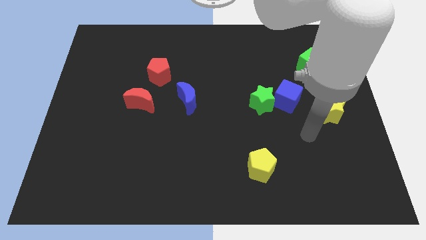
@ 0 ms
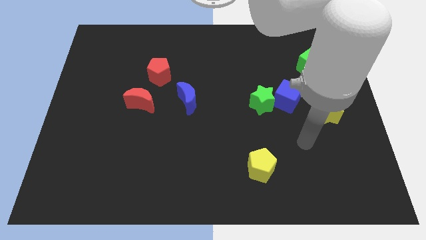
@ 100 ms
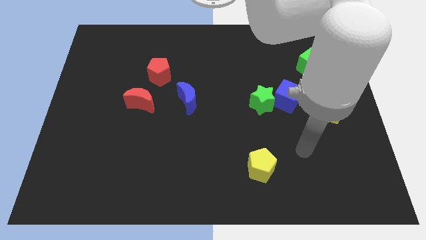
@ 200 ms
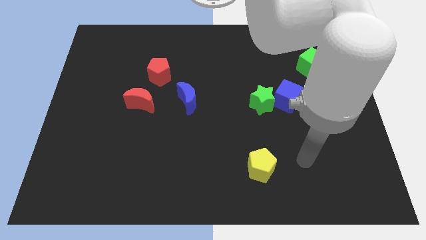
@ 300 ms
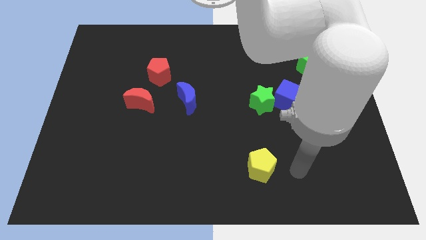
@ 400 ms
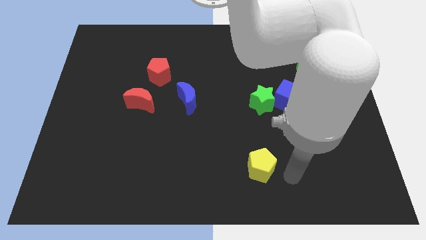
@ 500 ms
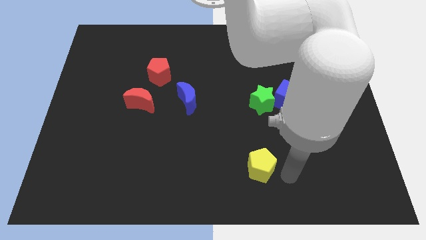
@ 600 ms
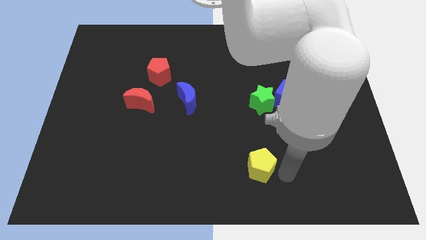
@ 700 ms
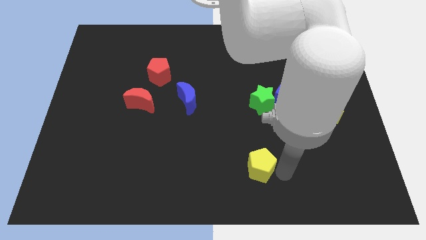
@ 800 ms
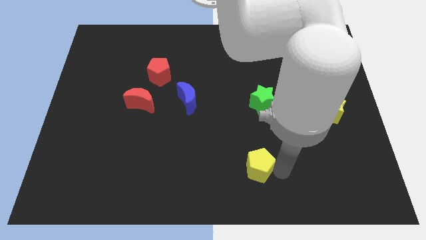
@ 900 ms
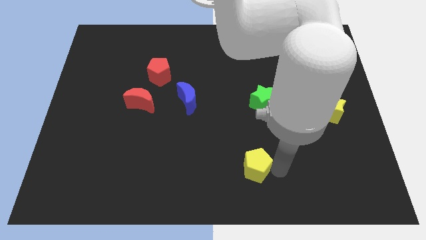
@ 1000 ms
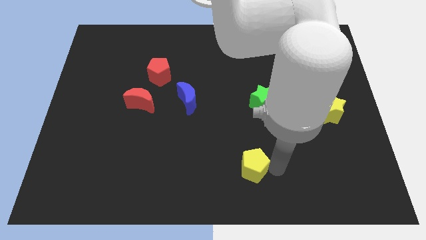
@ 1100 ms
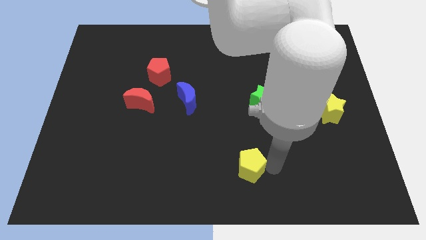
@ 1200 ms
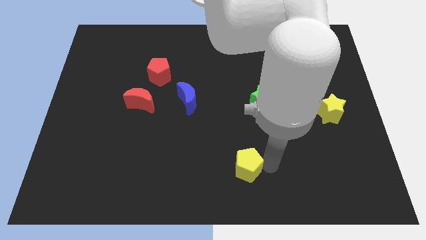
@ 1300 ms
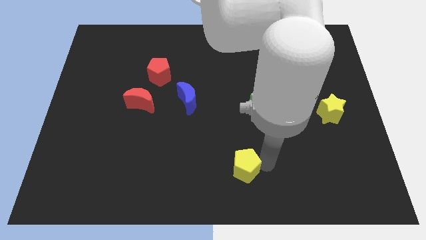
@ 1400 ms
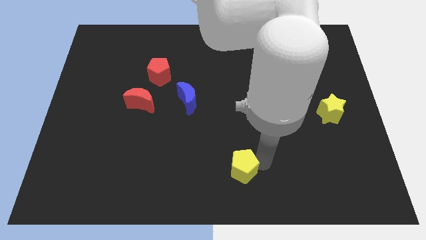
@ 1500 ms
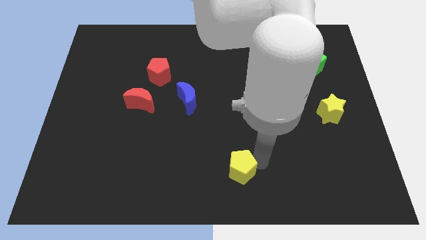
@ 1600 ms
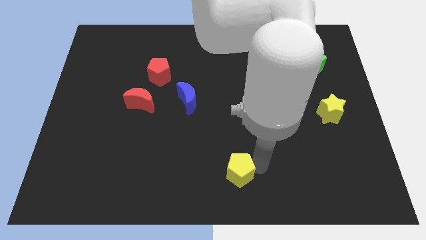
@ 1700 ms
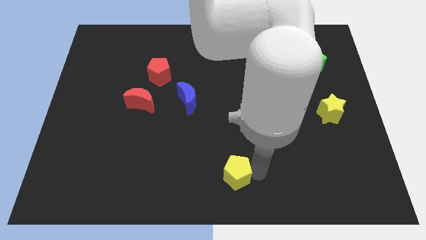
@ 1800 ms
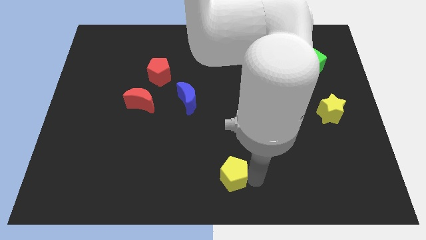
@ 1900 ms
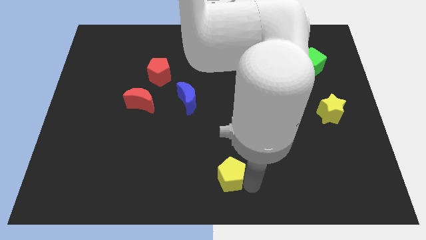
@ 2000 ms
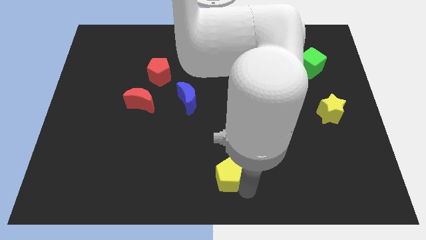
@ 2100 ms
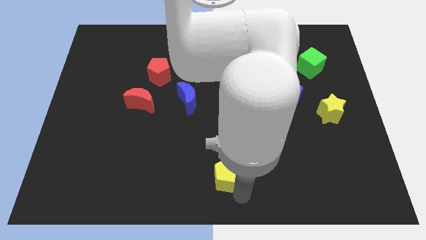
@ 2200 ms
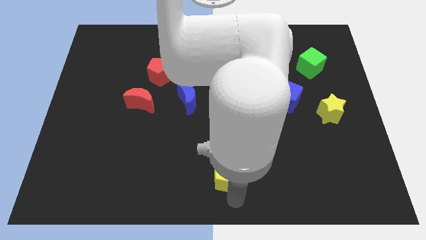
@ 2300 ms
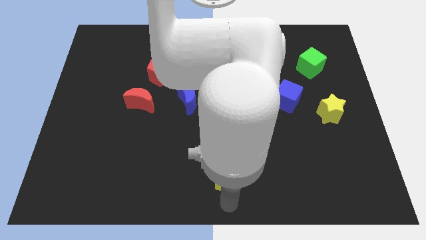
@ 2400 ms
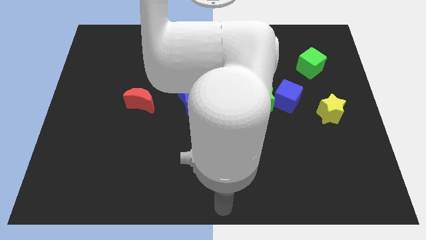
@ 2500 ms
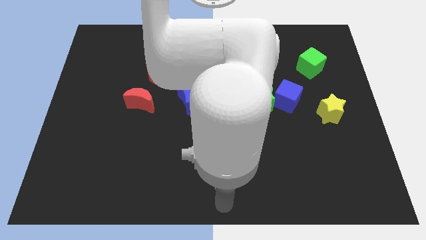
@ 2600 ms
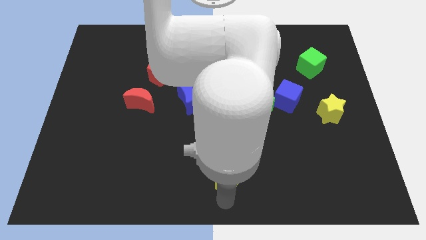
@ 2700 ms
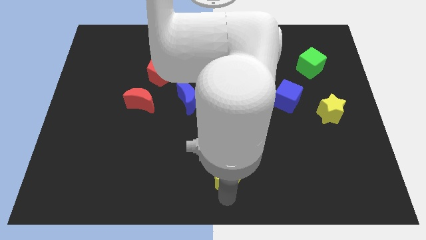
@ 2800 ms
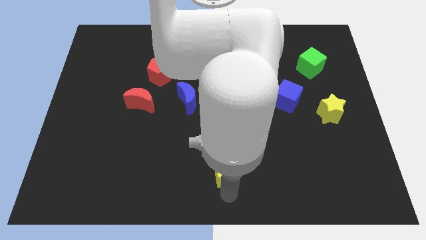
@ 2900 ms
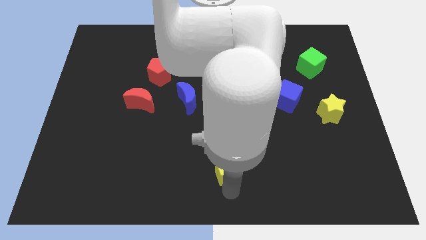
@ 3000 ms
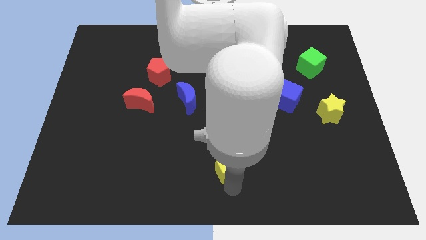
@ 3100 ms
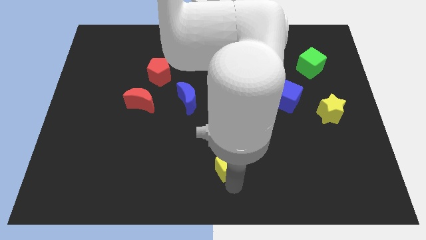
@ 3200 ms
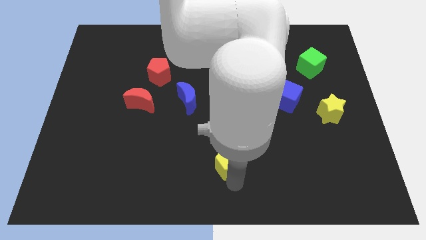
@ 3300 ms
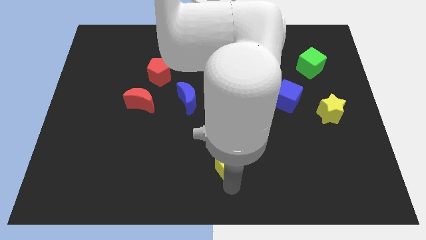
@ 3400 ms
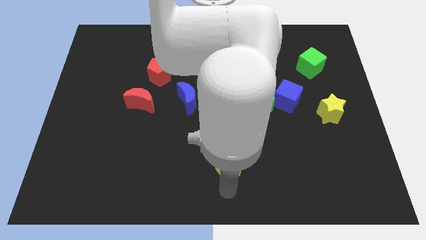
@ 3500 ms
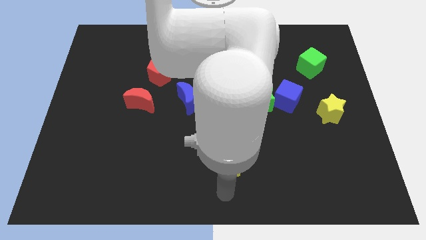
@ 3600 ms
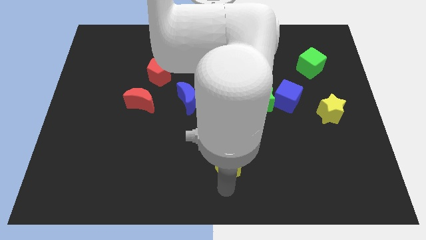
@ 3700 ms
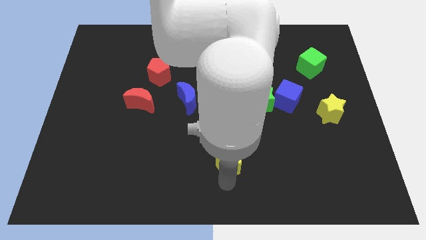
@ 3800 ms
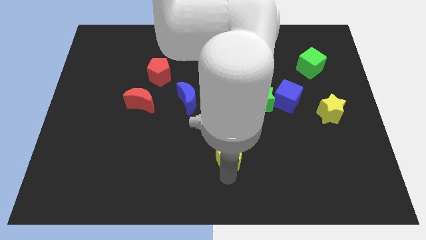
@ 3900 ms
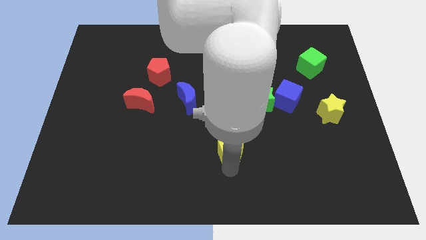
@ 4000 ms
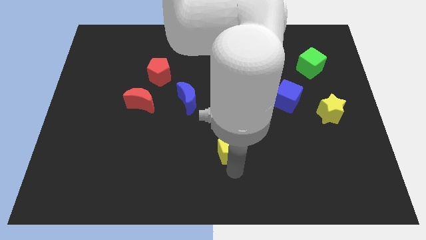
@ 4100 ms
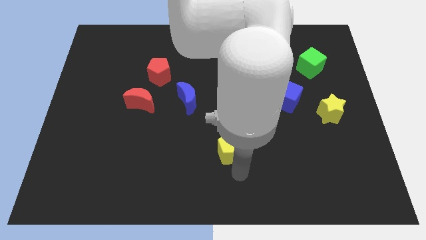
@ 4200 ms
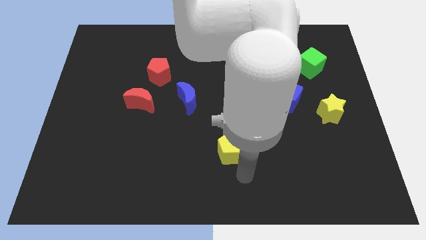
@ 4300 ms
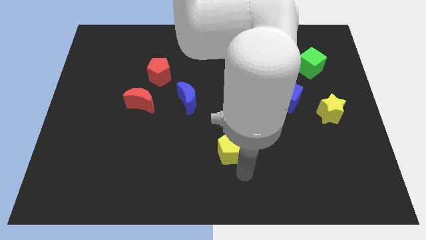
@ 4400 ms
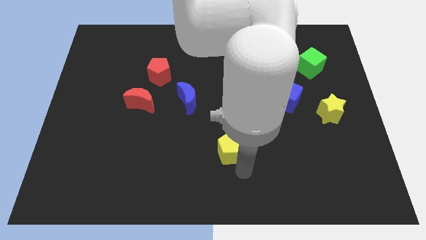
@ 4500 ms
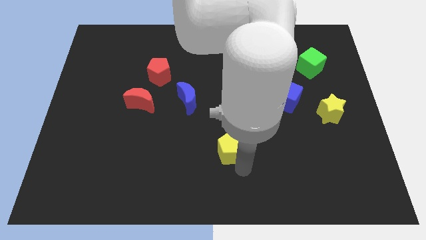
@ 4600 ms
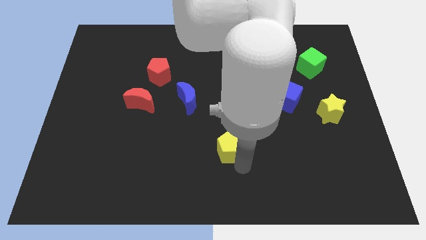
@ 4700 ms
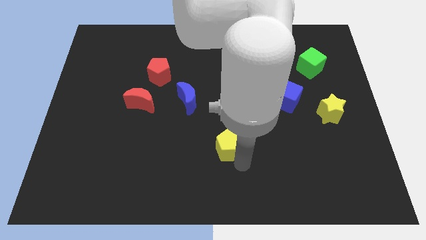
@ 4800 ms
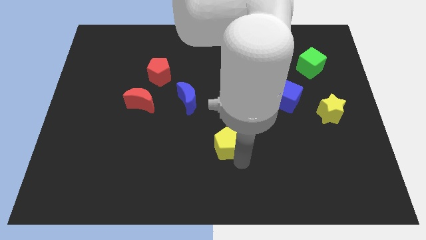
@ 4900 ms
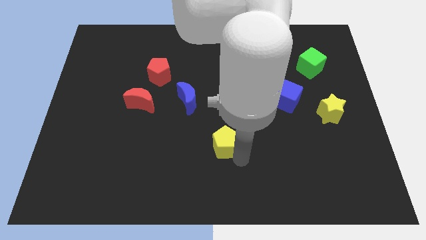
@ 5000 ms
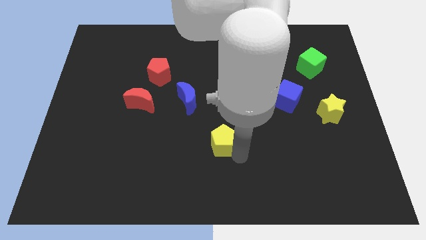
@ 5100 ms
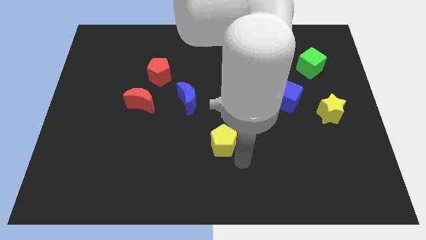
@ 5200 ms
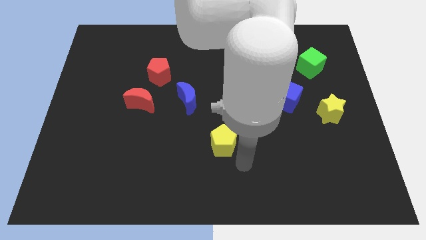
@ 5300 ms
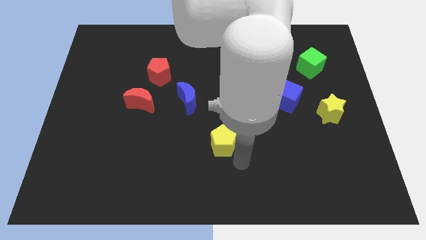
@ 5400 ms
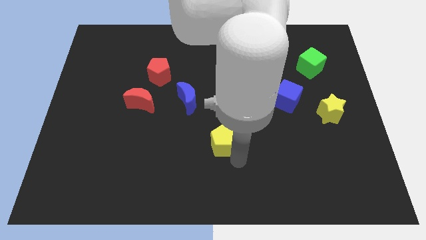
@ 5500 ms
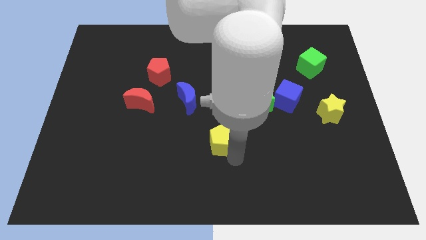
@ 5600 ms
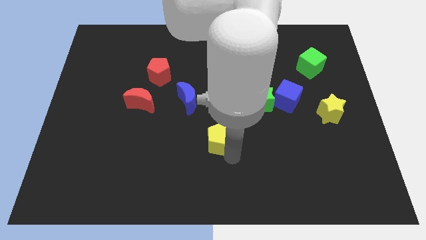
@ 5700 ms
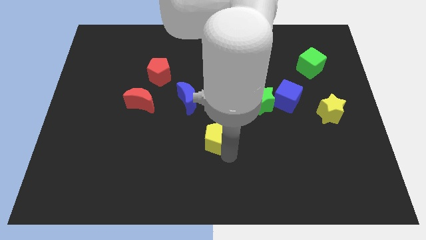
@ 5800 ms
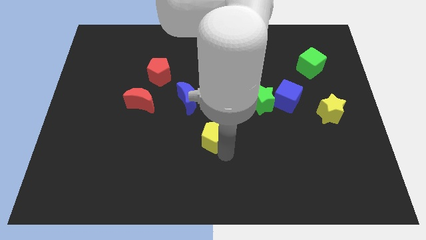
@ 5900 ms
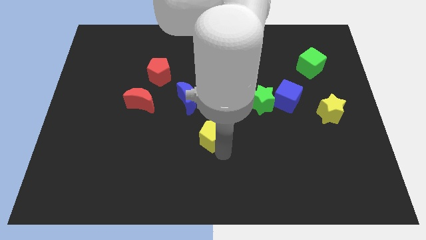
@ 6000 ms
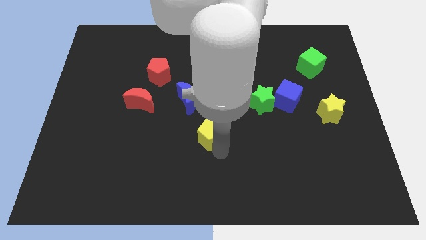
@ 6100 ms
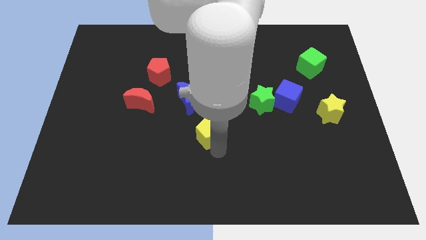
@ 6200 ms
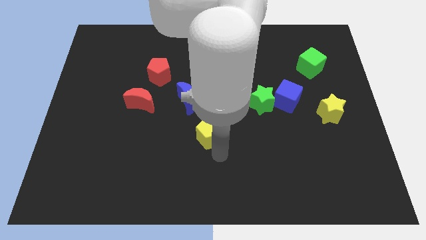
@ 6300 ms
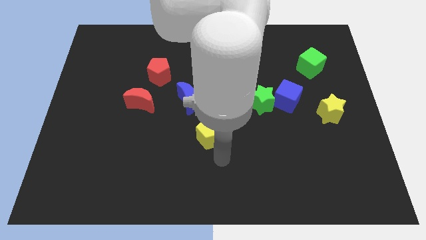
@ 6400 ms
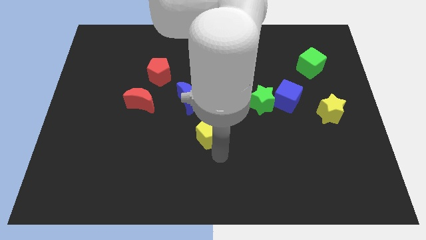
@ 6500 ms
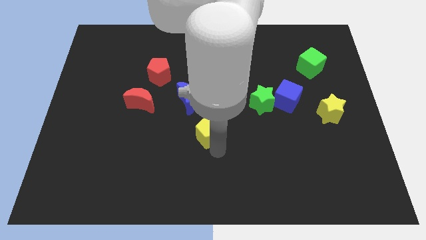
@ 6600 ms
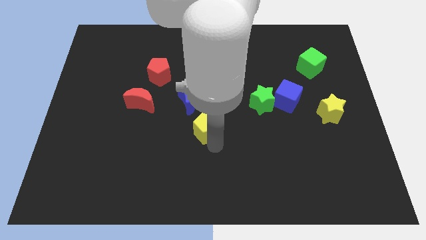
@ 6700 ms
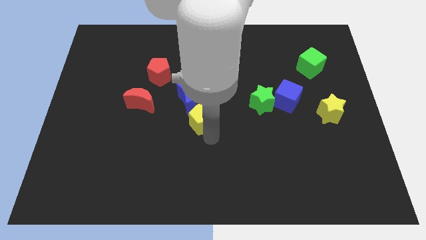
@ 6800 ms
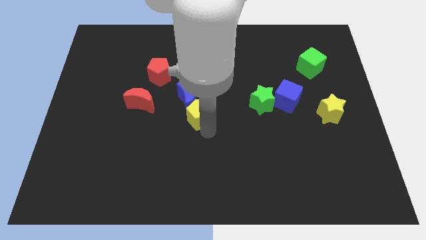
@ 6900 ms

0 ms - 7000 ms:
put the yellow pentagon towards the blue moon

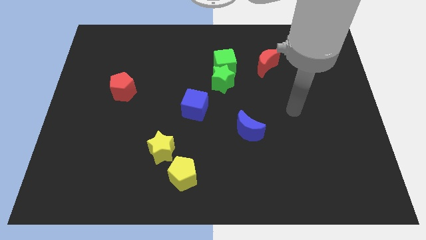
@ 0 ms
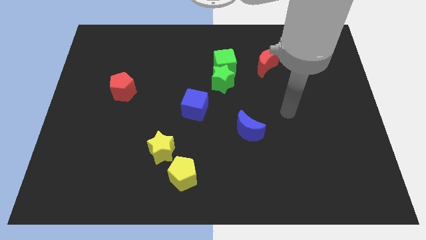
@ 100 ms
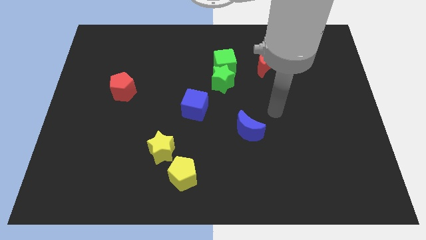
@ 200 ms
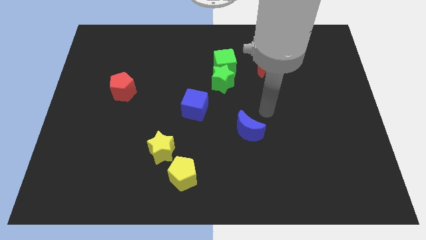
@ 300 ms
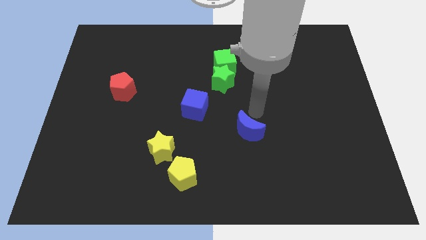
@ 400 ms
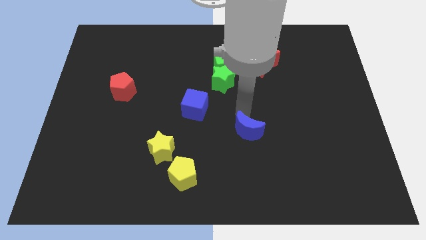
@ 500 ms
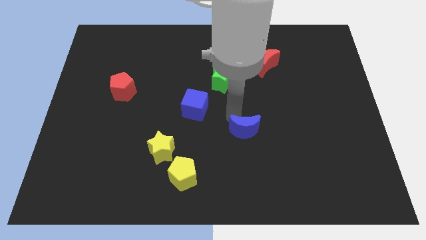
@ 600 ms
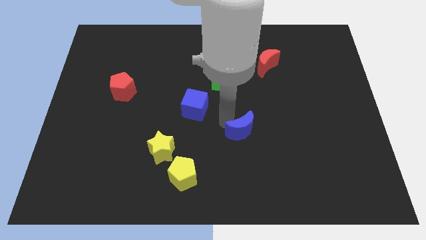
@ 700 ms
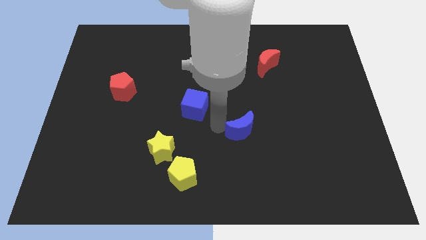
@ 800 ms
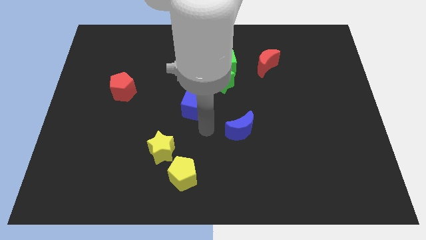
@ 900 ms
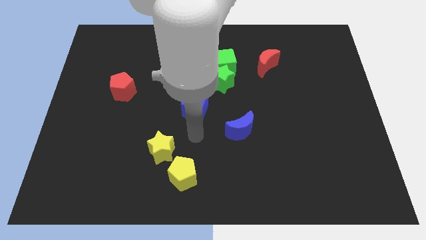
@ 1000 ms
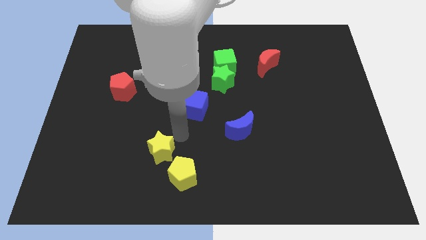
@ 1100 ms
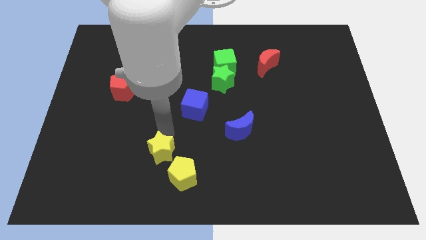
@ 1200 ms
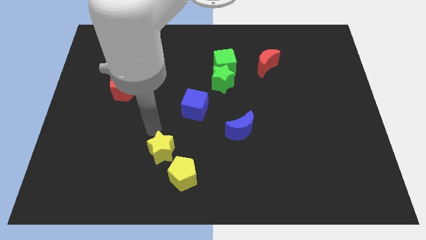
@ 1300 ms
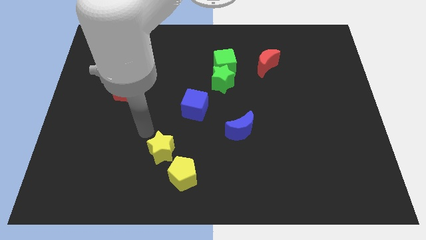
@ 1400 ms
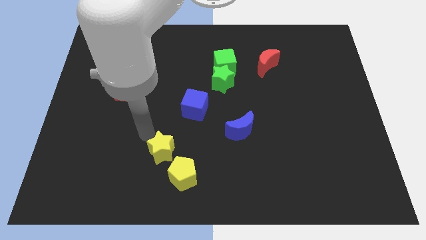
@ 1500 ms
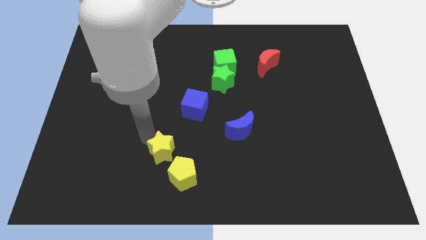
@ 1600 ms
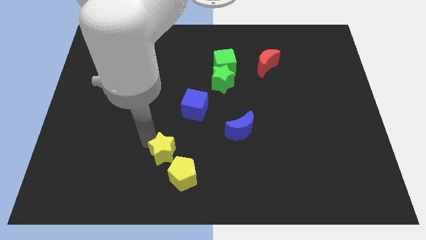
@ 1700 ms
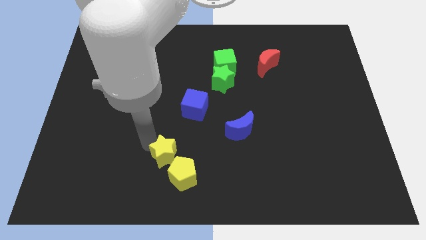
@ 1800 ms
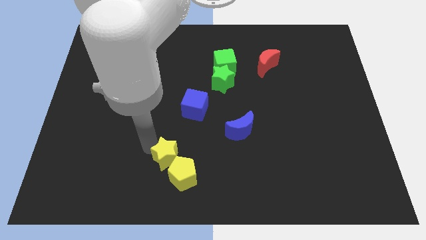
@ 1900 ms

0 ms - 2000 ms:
push the yellow star to the yellow pentagon
